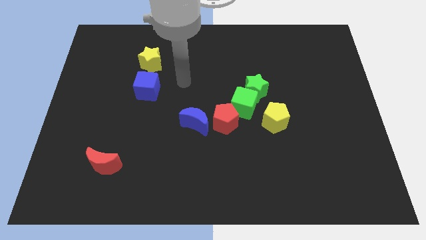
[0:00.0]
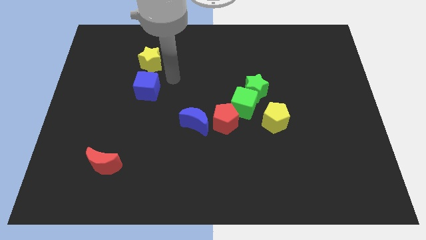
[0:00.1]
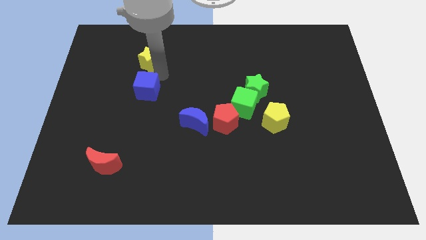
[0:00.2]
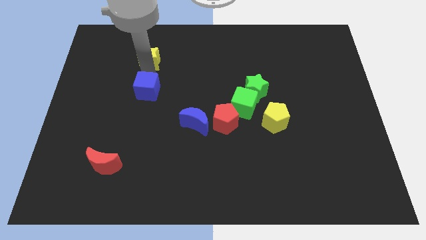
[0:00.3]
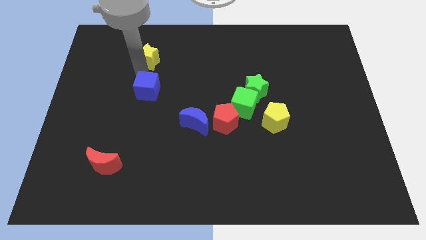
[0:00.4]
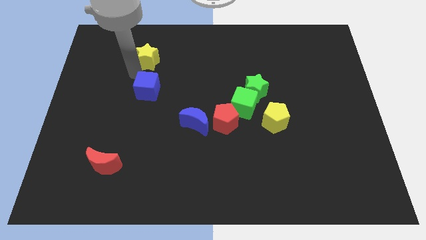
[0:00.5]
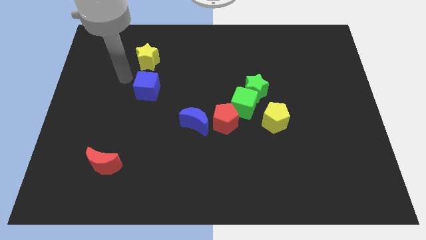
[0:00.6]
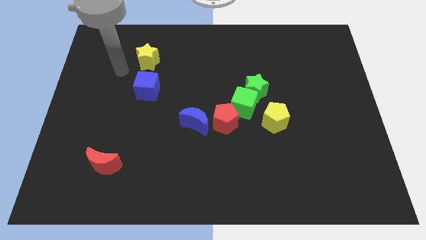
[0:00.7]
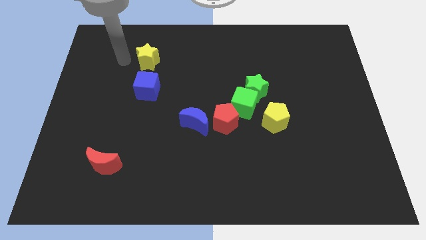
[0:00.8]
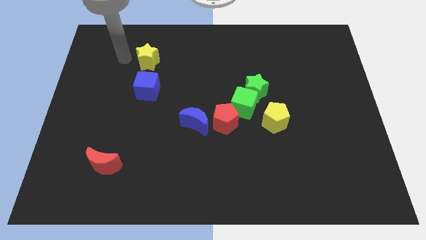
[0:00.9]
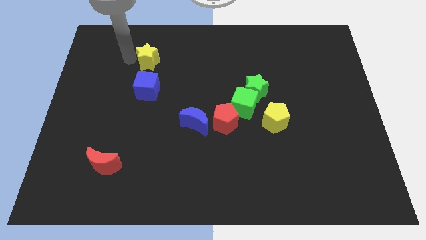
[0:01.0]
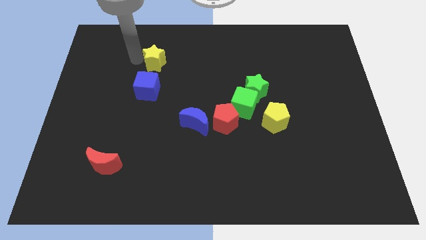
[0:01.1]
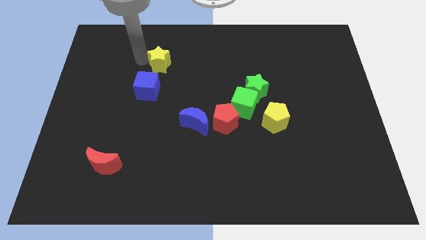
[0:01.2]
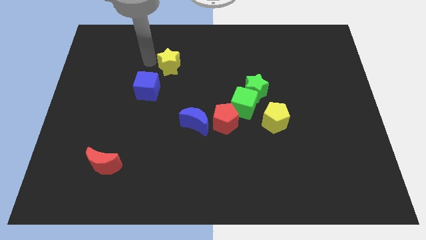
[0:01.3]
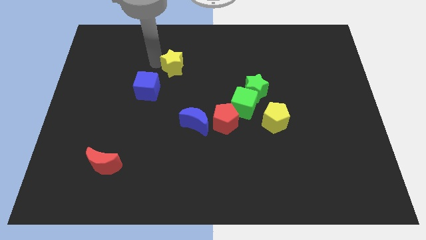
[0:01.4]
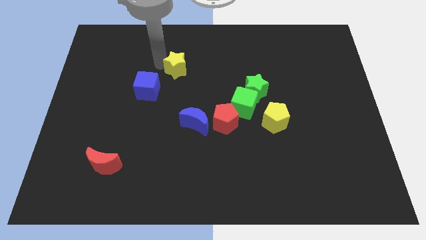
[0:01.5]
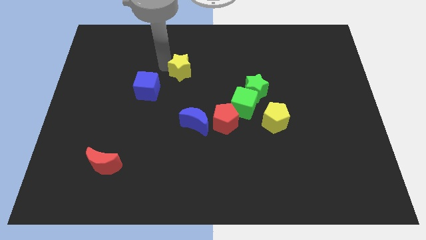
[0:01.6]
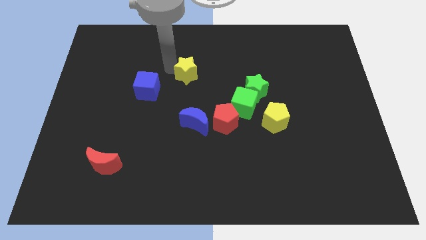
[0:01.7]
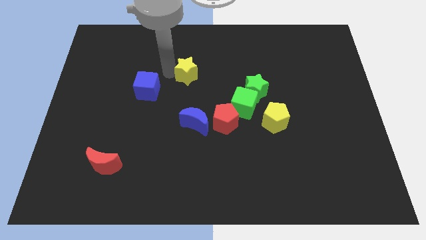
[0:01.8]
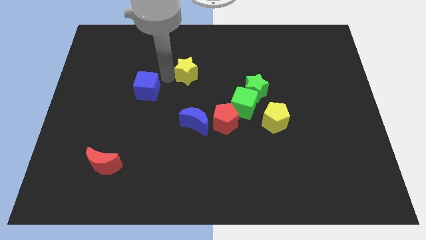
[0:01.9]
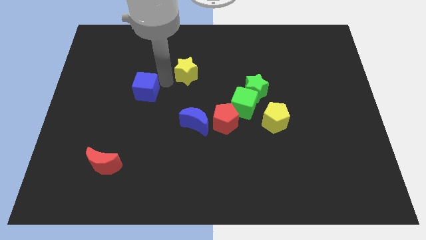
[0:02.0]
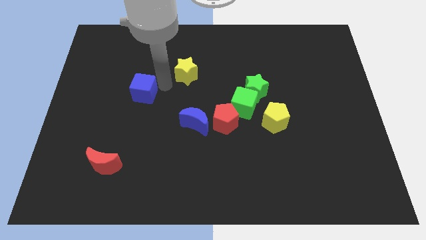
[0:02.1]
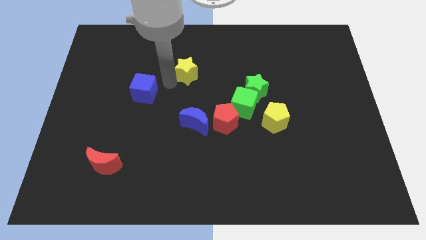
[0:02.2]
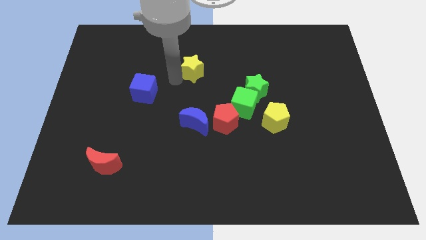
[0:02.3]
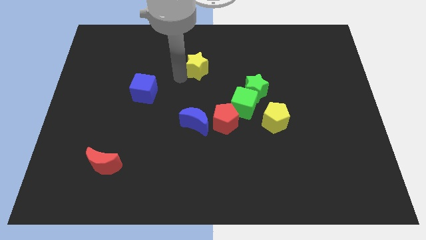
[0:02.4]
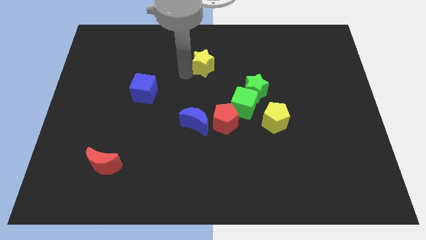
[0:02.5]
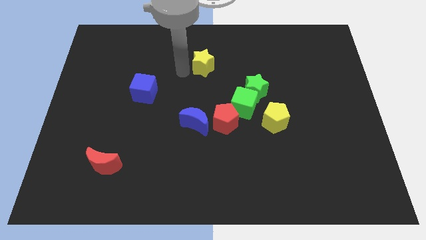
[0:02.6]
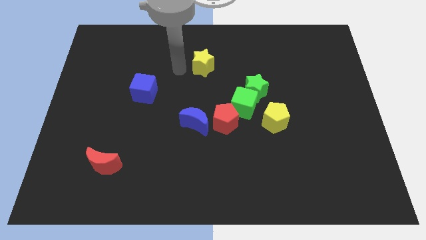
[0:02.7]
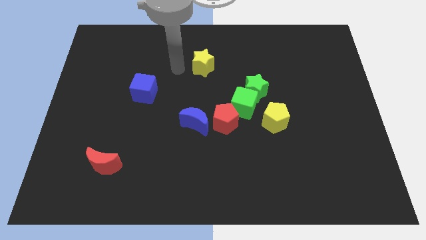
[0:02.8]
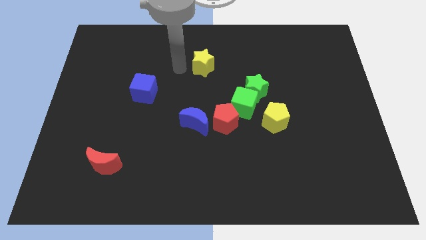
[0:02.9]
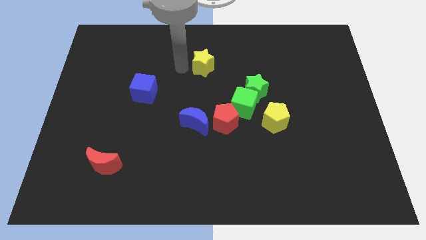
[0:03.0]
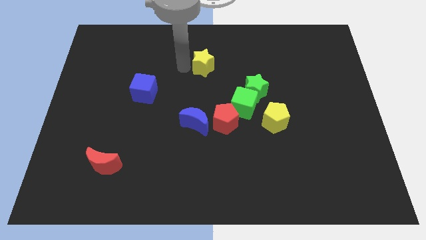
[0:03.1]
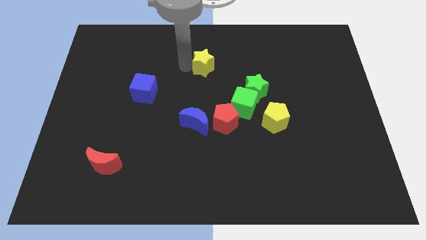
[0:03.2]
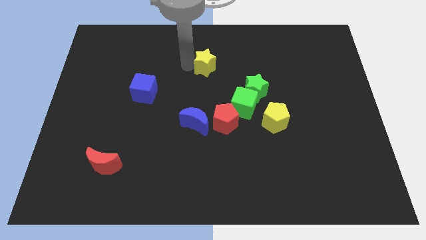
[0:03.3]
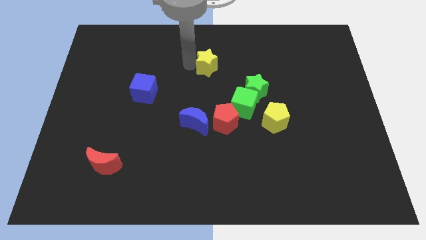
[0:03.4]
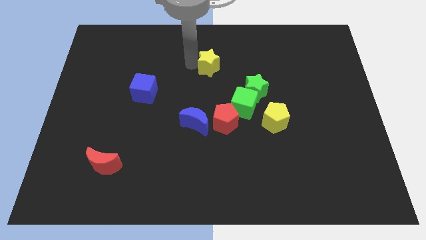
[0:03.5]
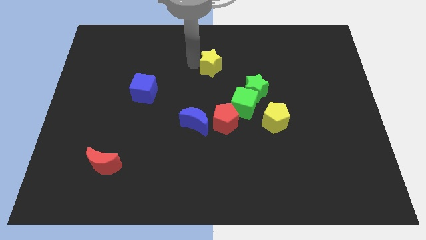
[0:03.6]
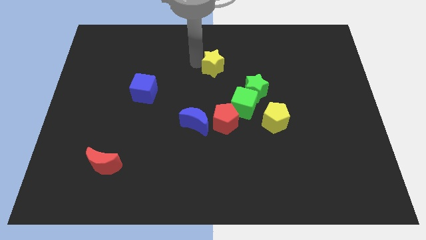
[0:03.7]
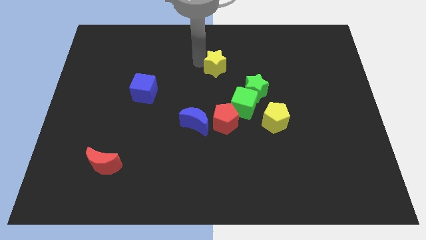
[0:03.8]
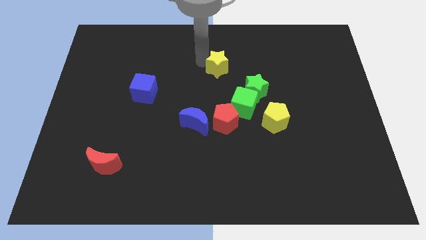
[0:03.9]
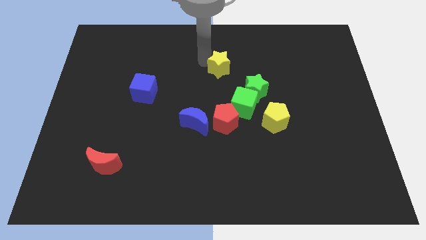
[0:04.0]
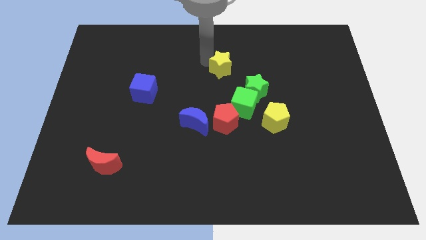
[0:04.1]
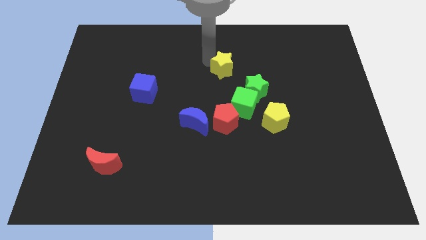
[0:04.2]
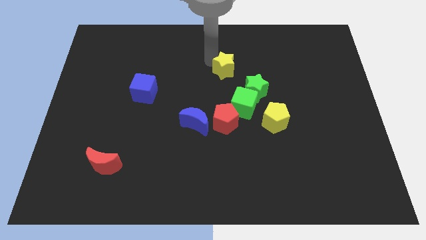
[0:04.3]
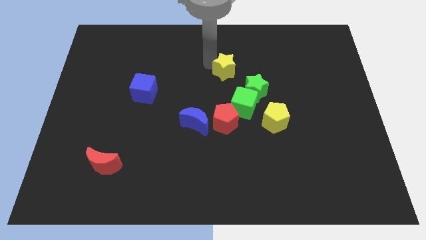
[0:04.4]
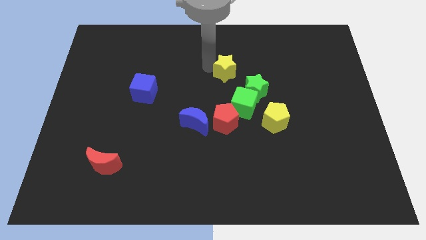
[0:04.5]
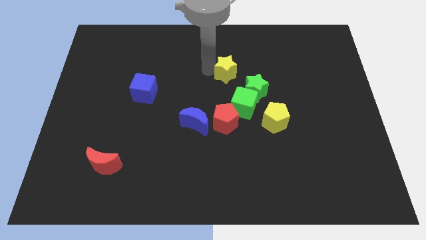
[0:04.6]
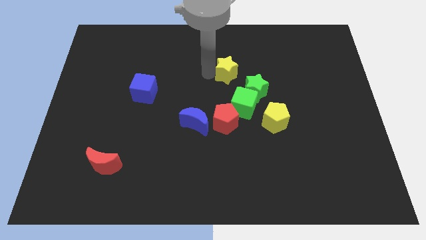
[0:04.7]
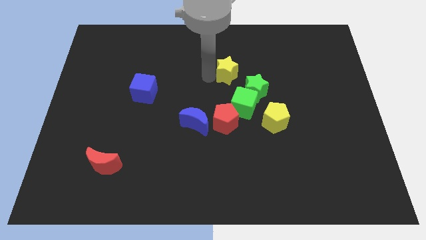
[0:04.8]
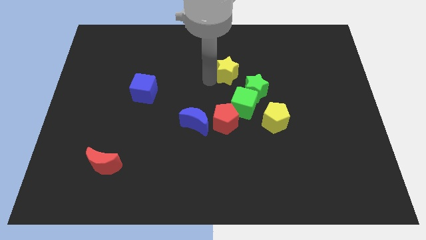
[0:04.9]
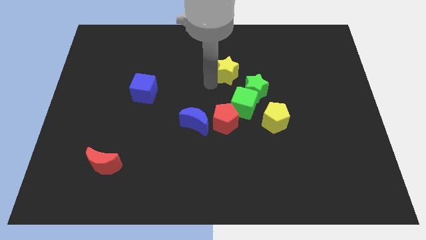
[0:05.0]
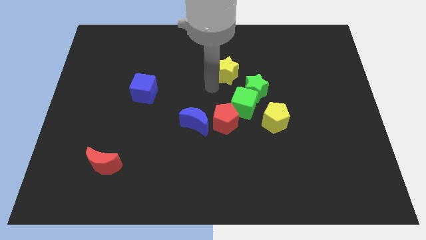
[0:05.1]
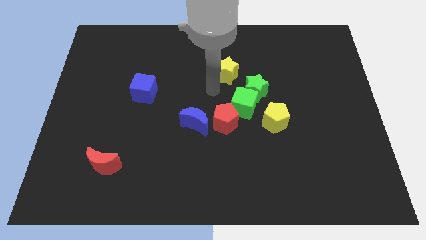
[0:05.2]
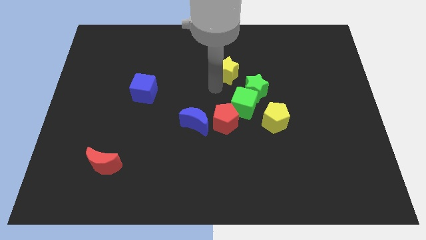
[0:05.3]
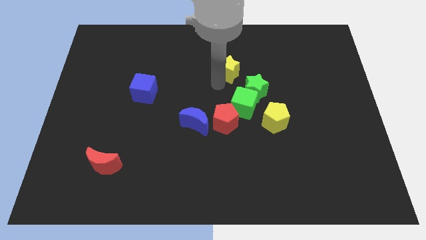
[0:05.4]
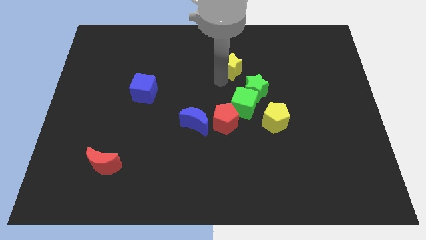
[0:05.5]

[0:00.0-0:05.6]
slide the yellow star to the right

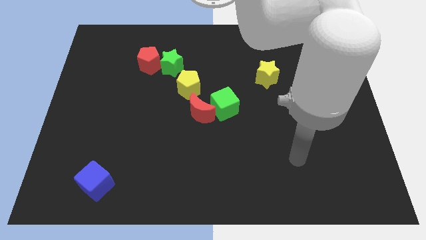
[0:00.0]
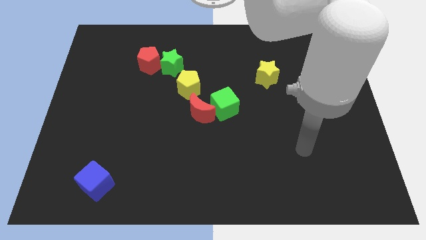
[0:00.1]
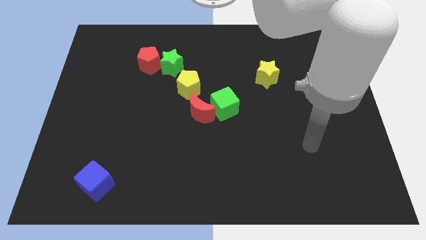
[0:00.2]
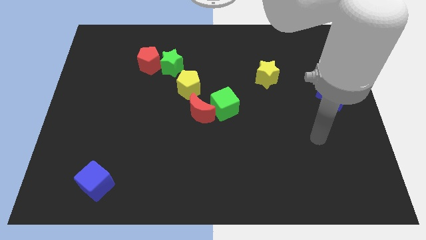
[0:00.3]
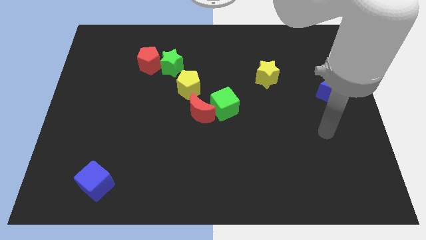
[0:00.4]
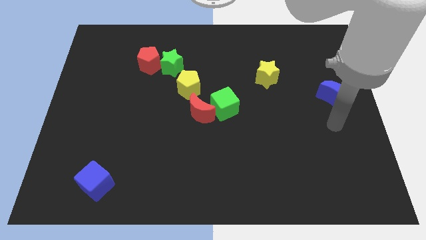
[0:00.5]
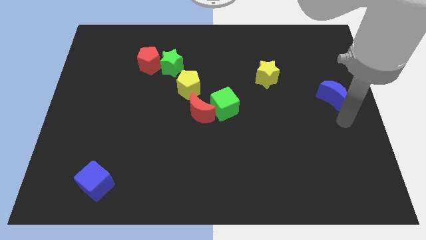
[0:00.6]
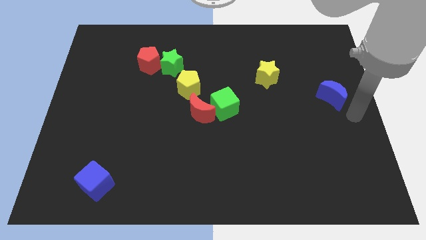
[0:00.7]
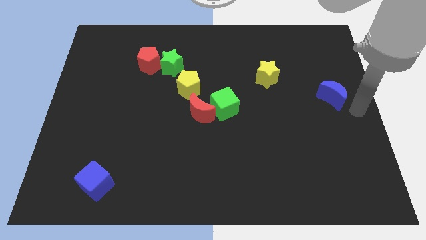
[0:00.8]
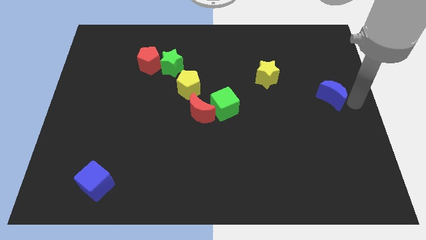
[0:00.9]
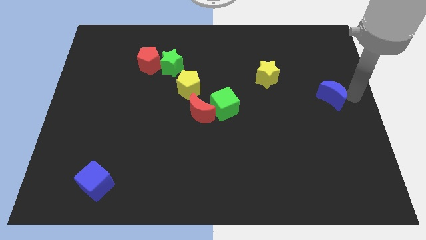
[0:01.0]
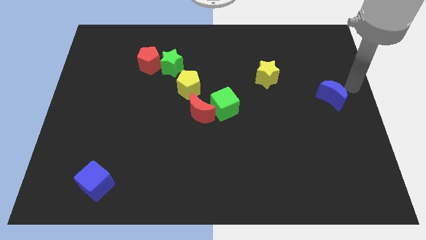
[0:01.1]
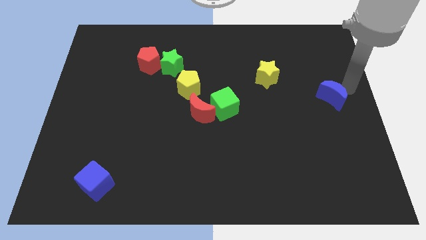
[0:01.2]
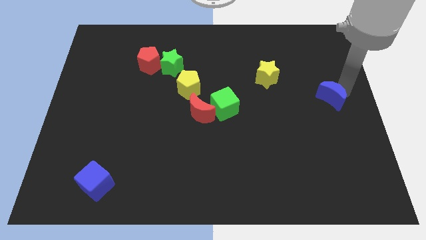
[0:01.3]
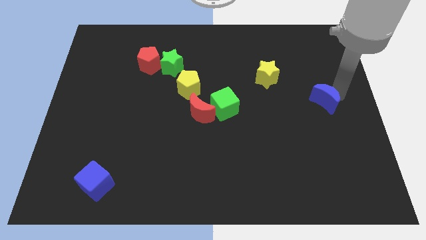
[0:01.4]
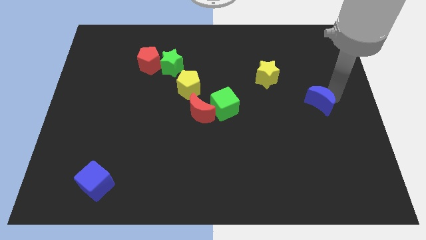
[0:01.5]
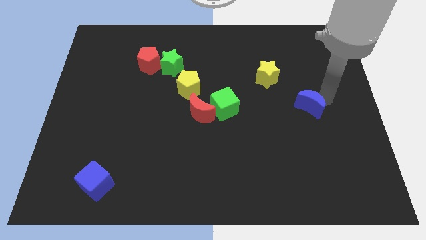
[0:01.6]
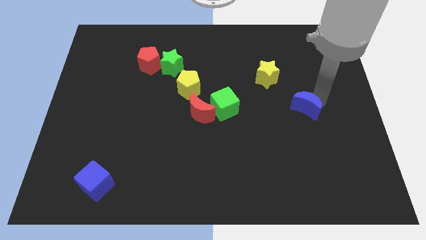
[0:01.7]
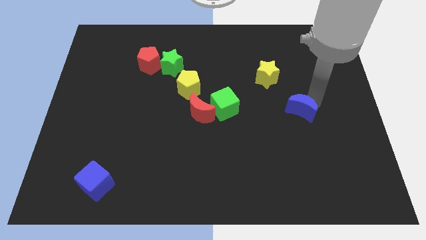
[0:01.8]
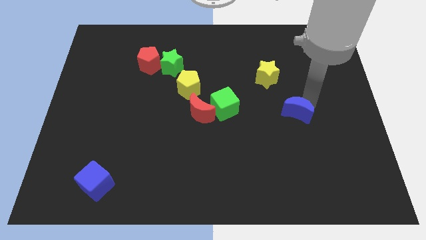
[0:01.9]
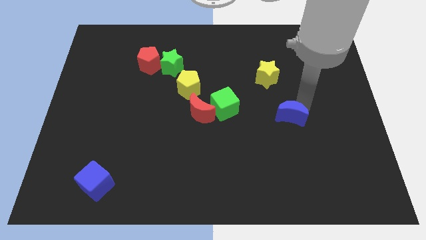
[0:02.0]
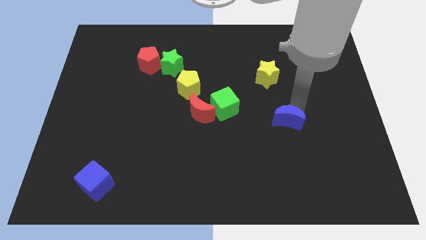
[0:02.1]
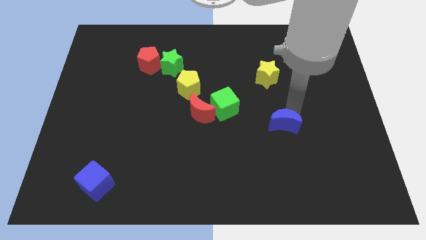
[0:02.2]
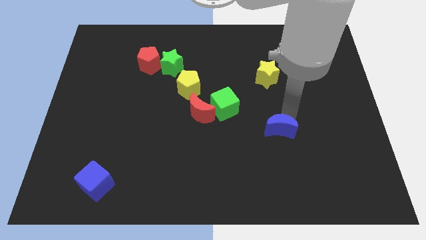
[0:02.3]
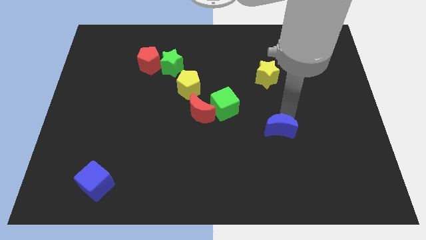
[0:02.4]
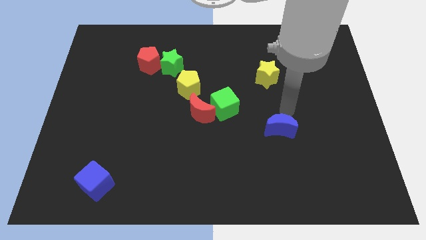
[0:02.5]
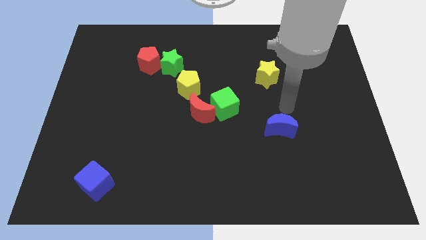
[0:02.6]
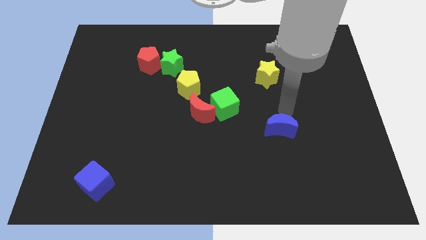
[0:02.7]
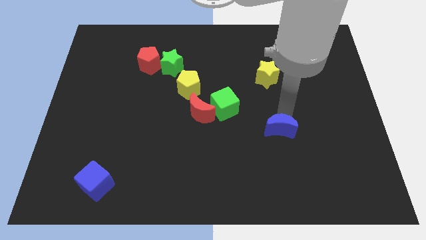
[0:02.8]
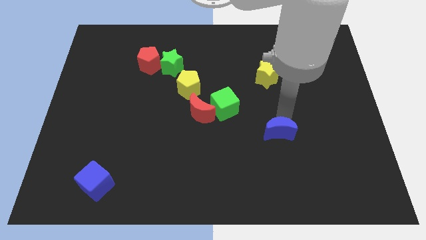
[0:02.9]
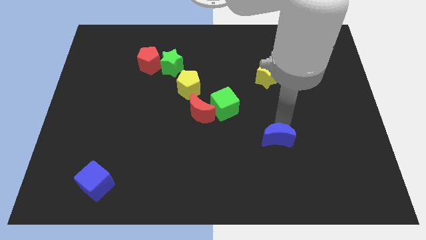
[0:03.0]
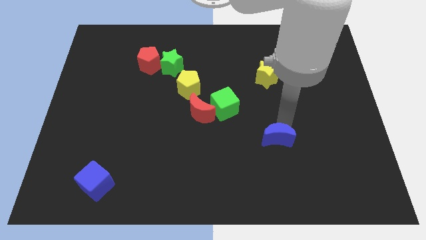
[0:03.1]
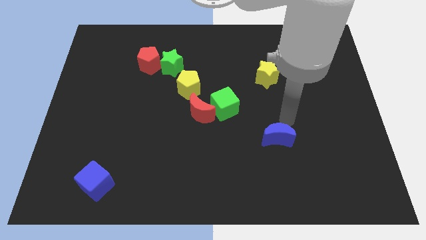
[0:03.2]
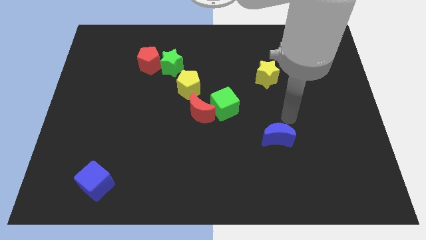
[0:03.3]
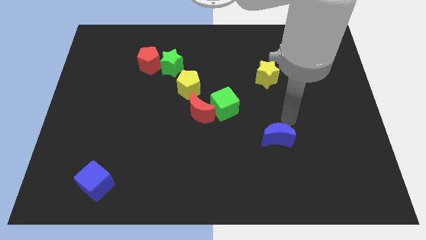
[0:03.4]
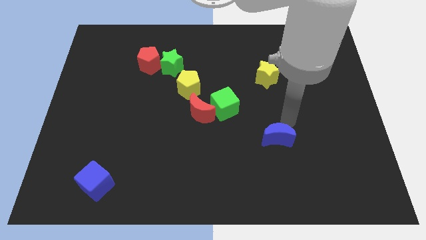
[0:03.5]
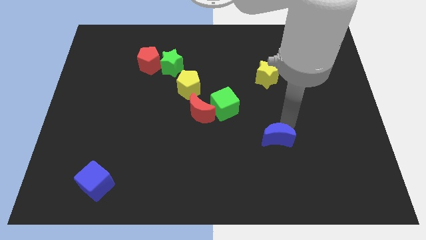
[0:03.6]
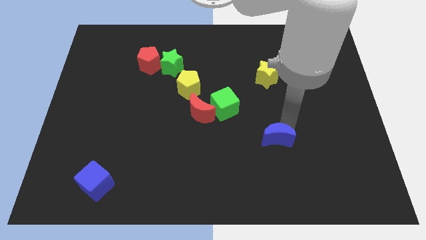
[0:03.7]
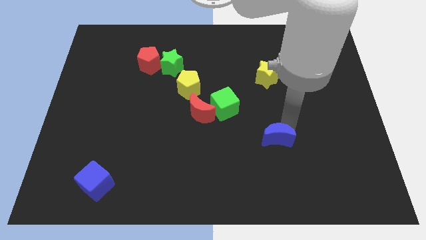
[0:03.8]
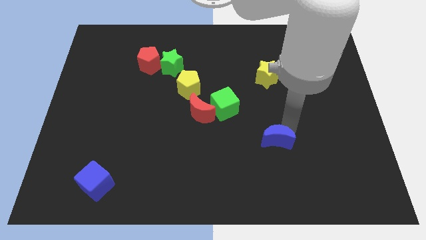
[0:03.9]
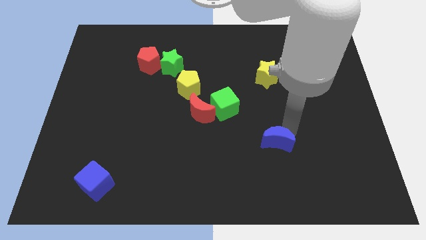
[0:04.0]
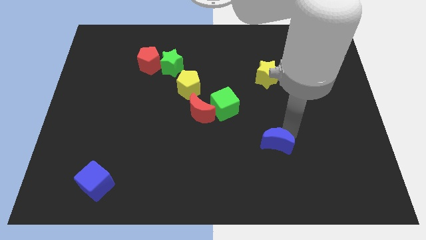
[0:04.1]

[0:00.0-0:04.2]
move the blue moon diagonally down and left
